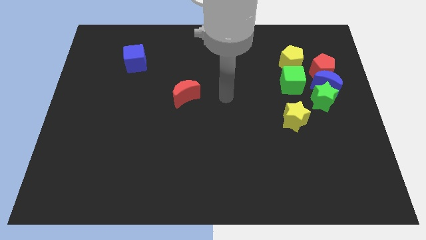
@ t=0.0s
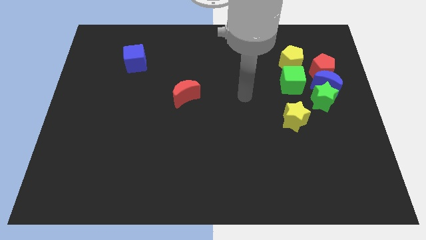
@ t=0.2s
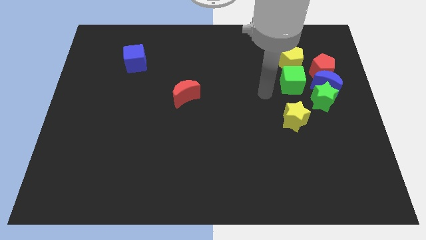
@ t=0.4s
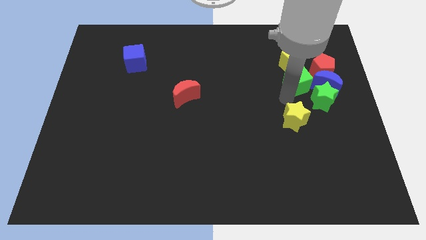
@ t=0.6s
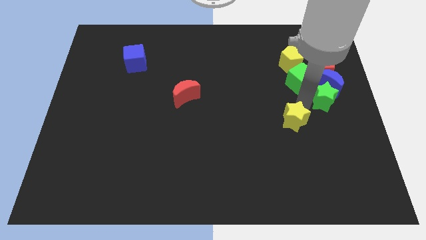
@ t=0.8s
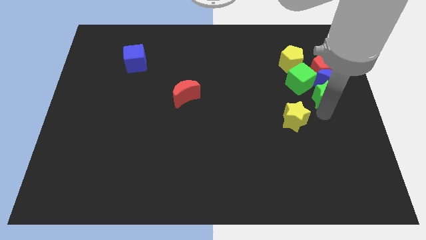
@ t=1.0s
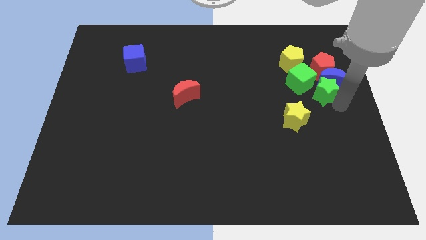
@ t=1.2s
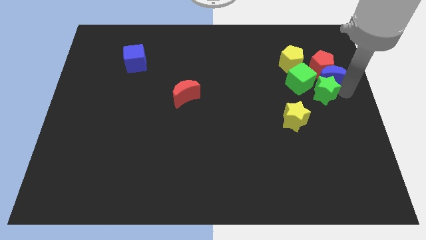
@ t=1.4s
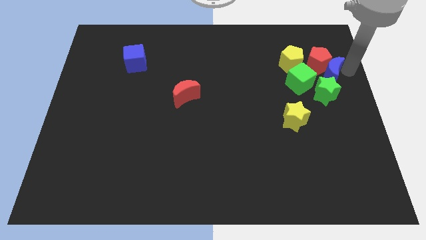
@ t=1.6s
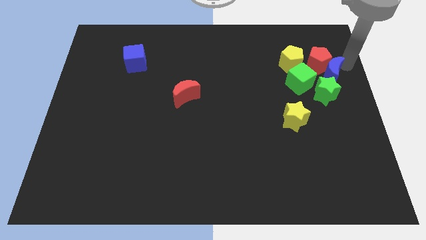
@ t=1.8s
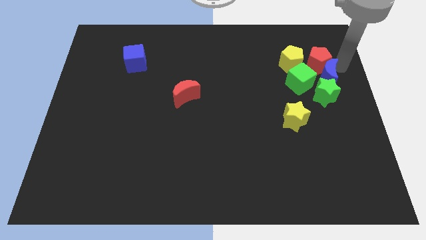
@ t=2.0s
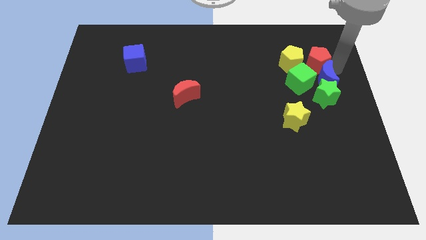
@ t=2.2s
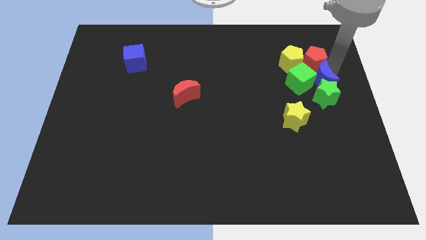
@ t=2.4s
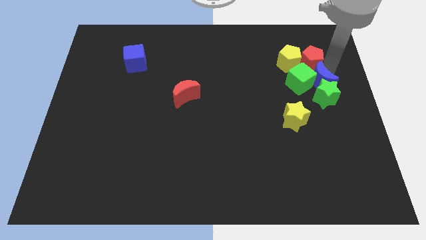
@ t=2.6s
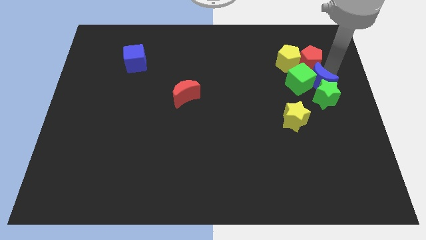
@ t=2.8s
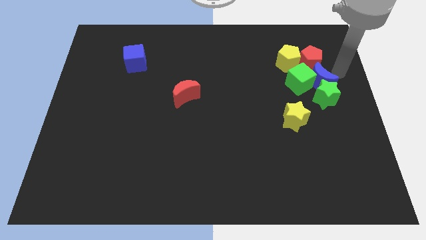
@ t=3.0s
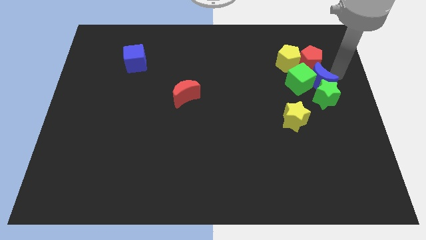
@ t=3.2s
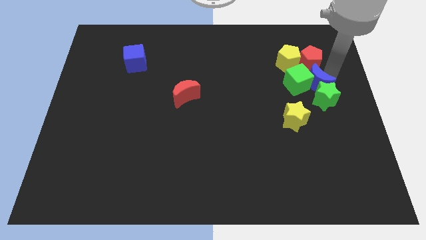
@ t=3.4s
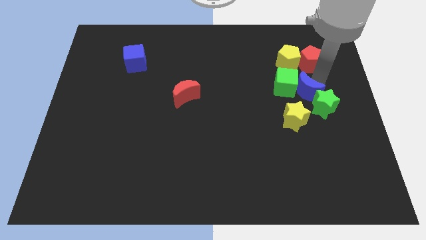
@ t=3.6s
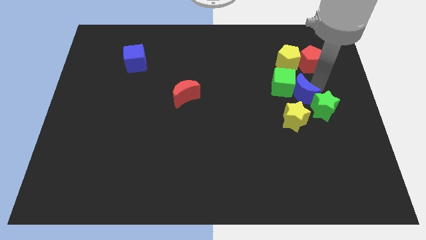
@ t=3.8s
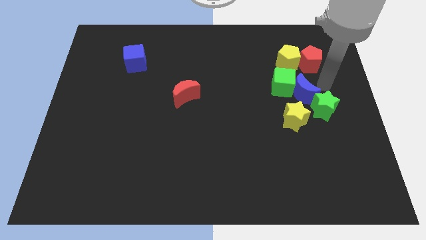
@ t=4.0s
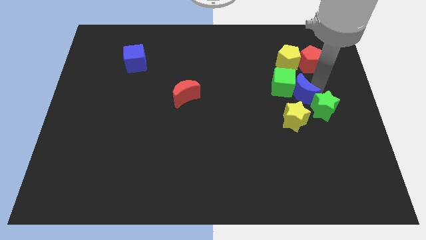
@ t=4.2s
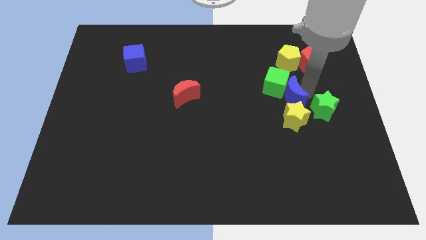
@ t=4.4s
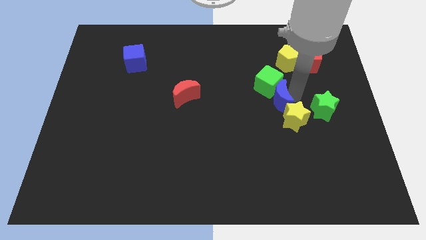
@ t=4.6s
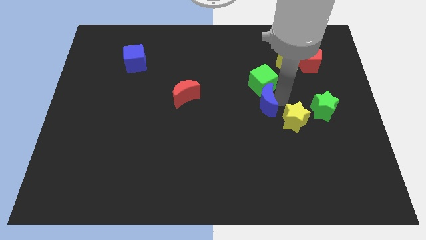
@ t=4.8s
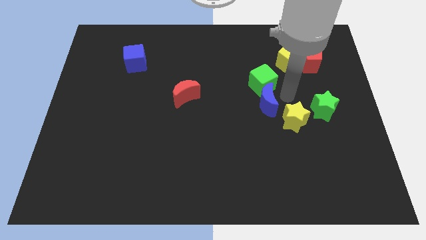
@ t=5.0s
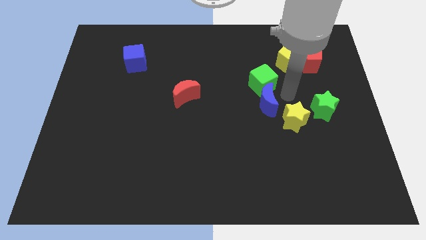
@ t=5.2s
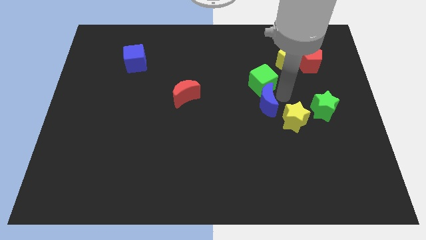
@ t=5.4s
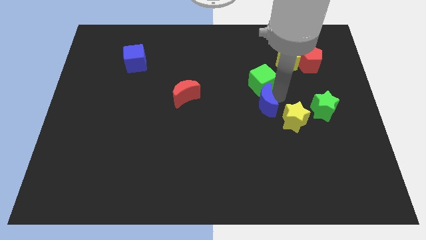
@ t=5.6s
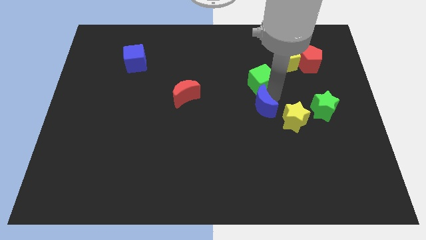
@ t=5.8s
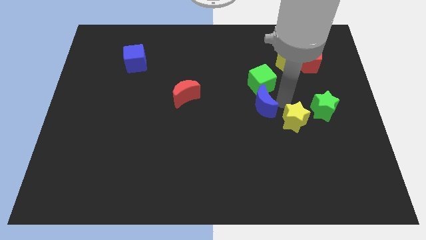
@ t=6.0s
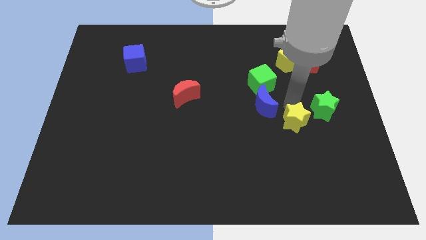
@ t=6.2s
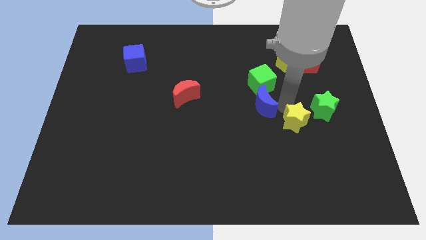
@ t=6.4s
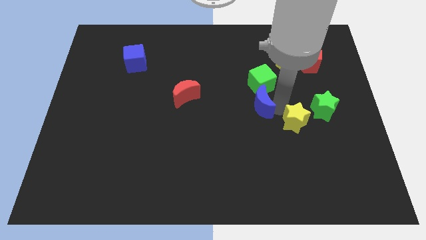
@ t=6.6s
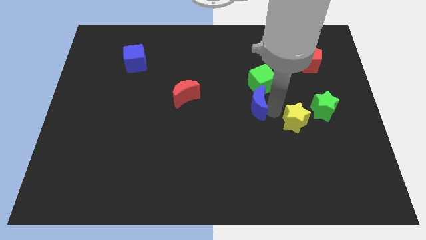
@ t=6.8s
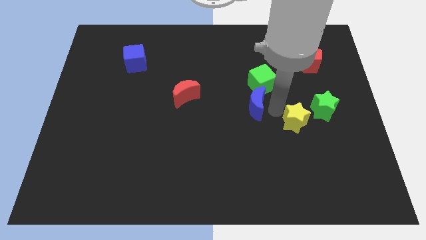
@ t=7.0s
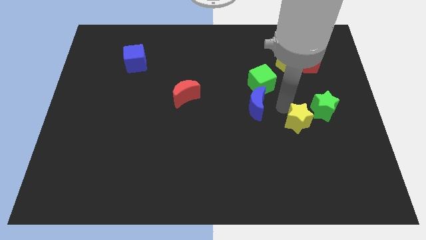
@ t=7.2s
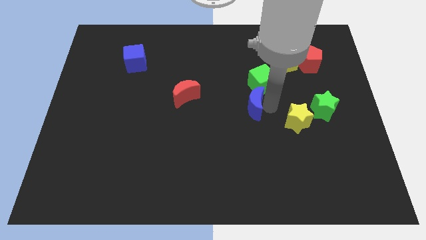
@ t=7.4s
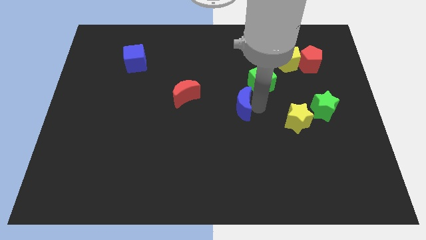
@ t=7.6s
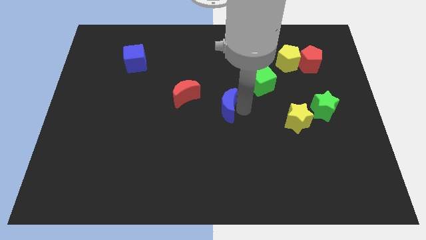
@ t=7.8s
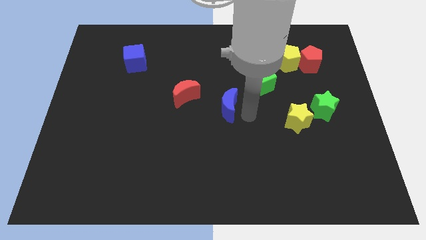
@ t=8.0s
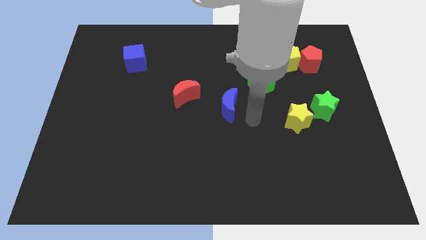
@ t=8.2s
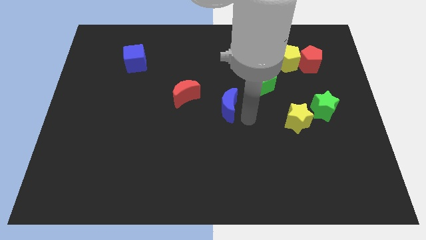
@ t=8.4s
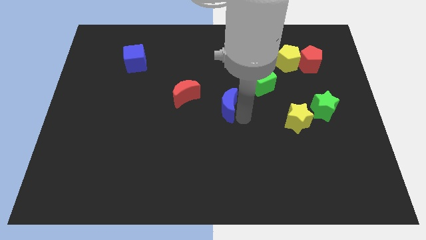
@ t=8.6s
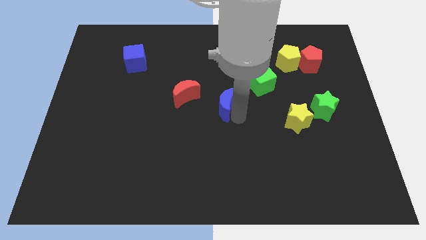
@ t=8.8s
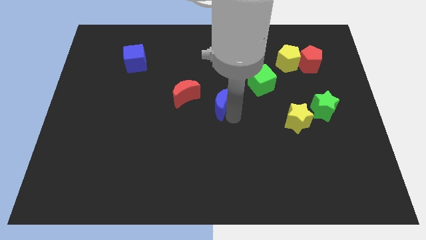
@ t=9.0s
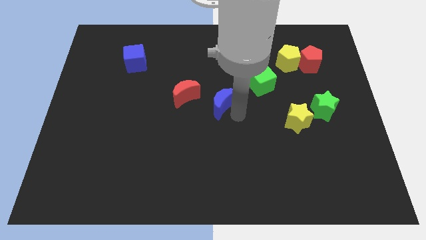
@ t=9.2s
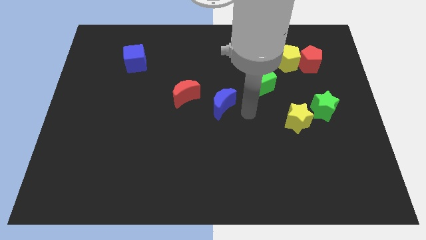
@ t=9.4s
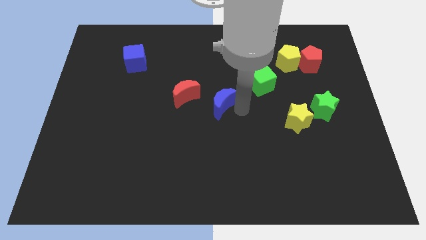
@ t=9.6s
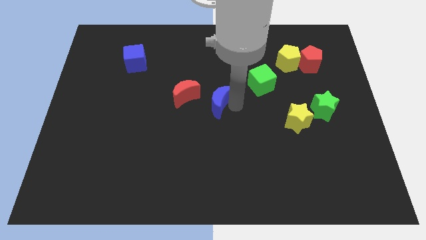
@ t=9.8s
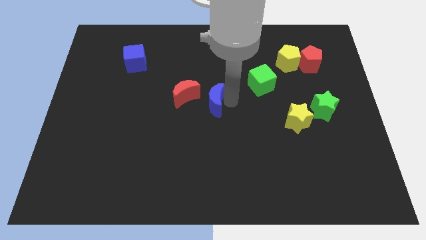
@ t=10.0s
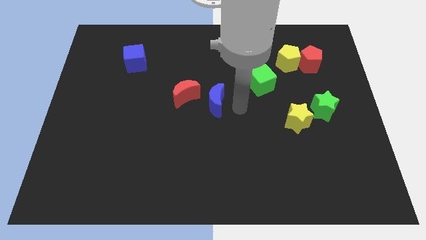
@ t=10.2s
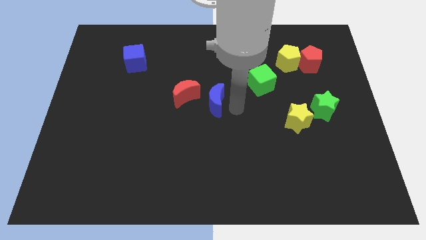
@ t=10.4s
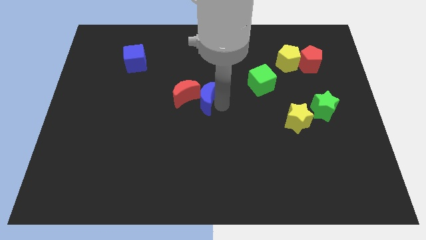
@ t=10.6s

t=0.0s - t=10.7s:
put the blue moon next to the red moon

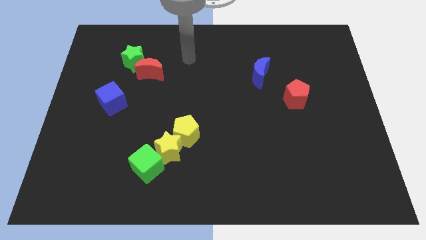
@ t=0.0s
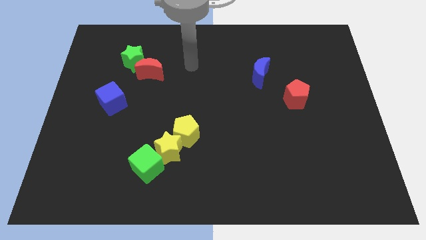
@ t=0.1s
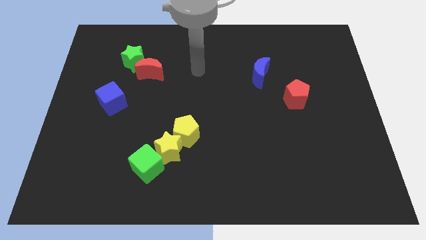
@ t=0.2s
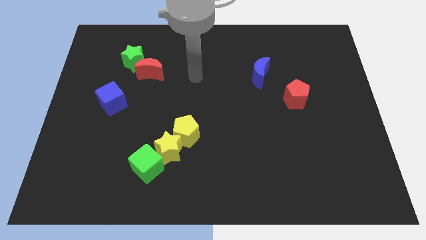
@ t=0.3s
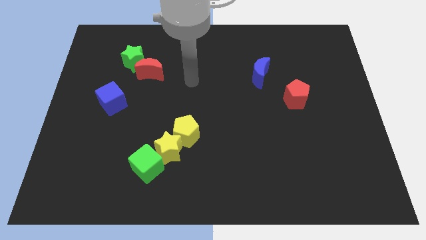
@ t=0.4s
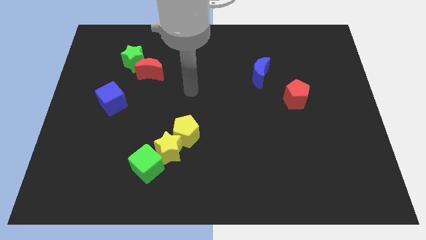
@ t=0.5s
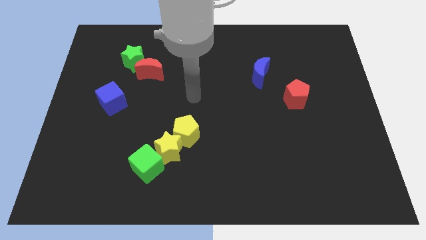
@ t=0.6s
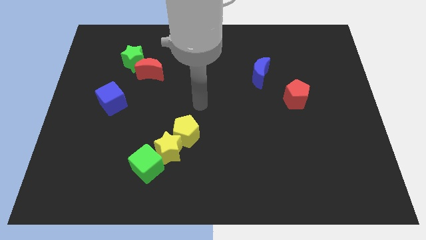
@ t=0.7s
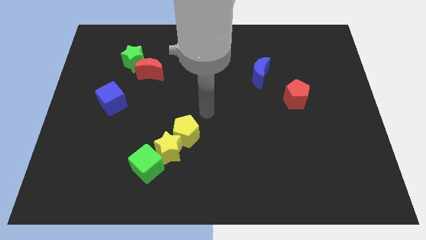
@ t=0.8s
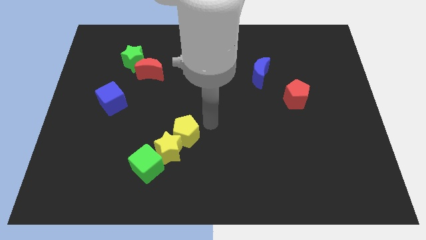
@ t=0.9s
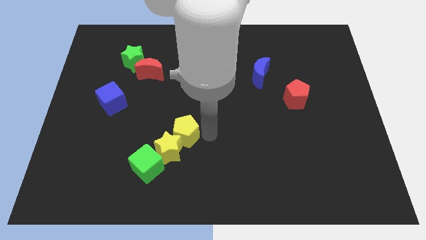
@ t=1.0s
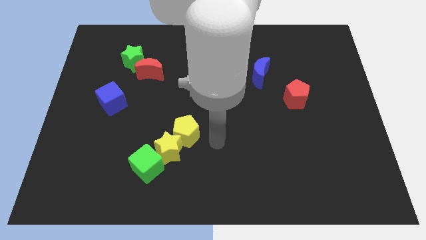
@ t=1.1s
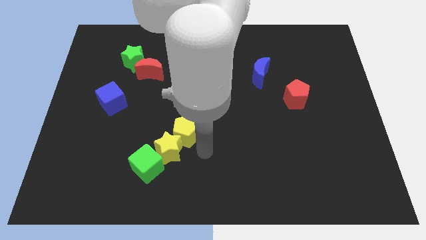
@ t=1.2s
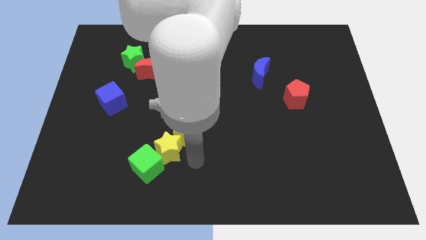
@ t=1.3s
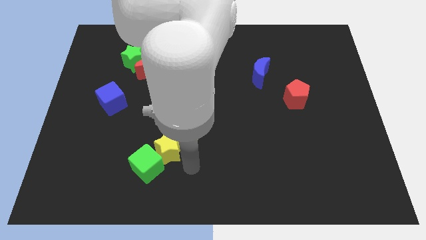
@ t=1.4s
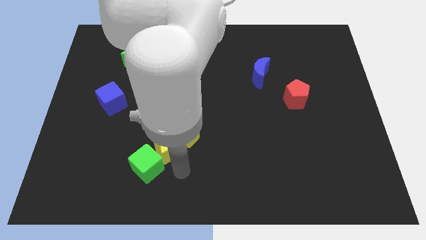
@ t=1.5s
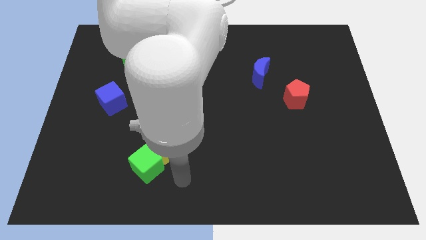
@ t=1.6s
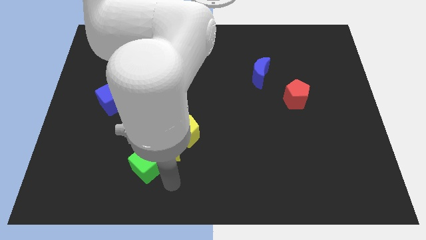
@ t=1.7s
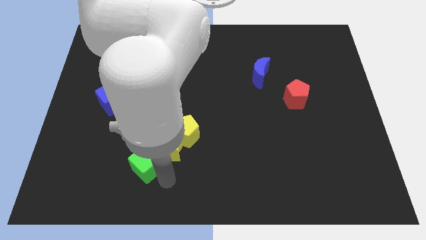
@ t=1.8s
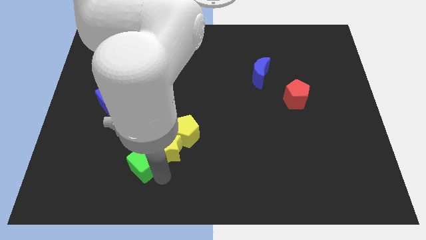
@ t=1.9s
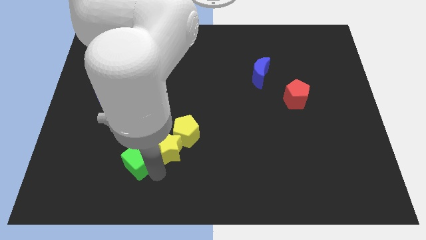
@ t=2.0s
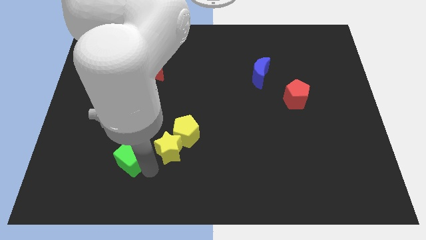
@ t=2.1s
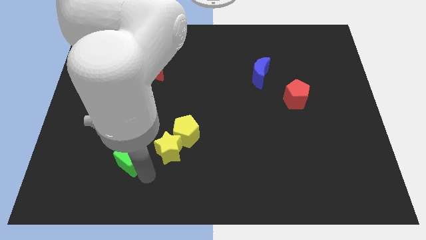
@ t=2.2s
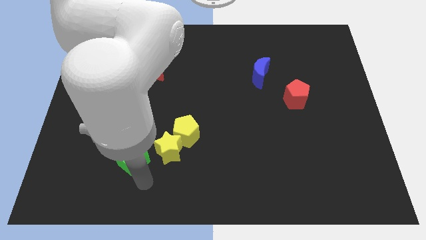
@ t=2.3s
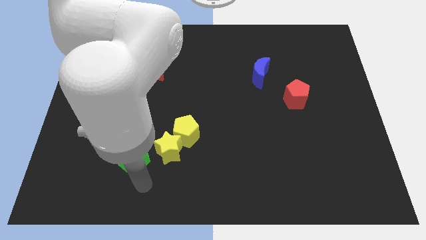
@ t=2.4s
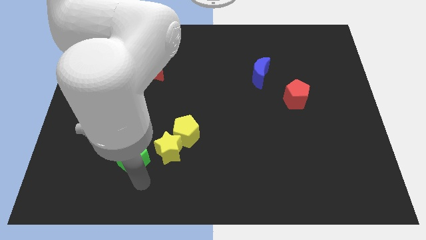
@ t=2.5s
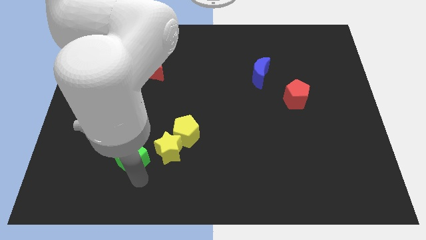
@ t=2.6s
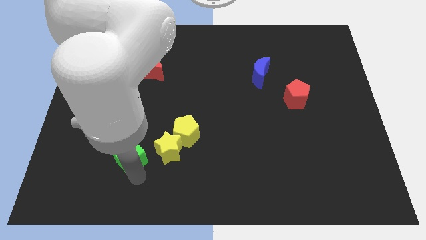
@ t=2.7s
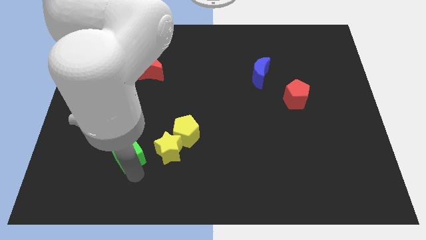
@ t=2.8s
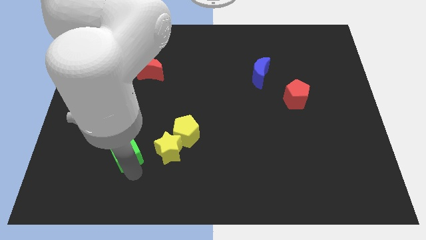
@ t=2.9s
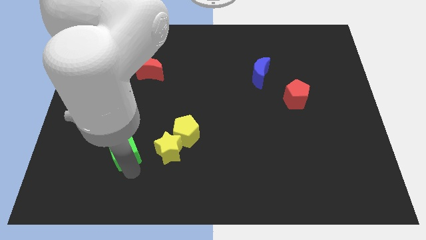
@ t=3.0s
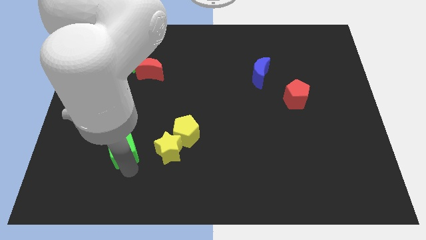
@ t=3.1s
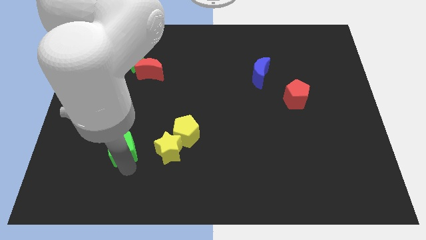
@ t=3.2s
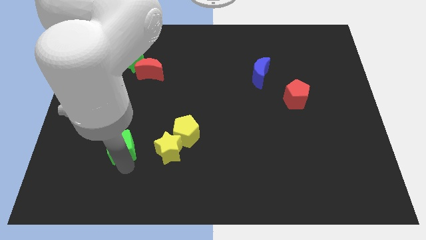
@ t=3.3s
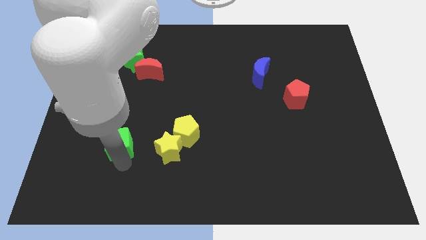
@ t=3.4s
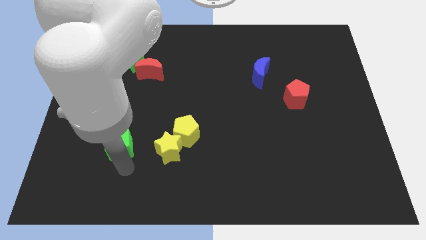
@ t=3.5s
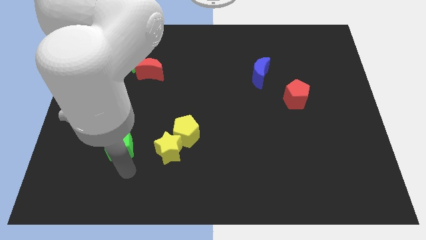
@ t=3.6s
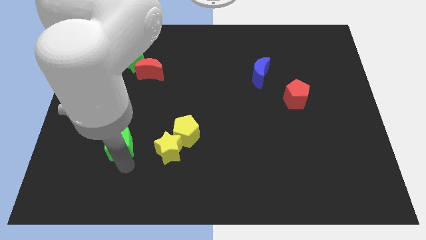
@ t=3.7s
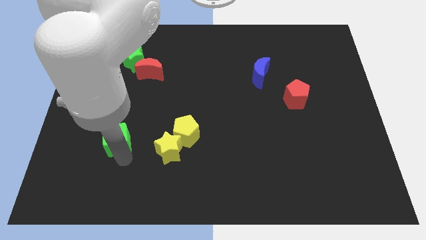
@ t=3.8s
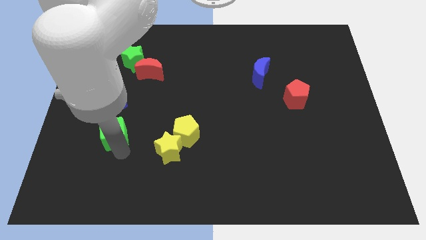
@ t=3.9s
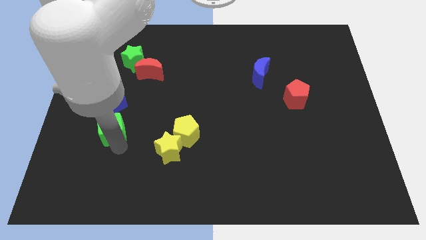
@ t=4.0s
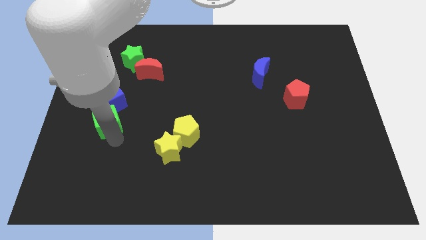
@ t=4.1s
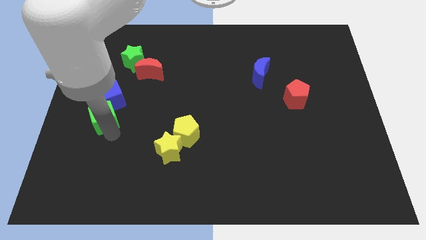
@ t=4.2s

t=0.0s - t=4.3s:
put the green cube towards the blue cube
